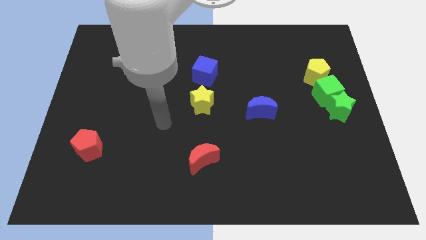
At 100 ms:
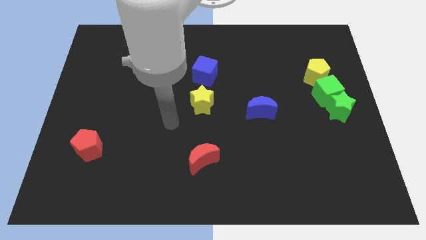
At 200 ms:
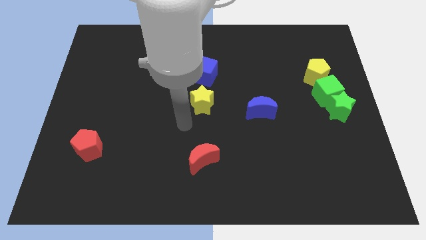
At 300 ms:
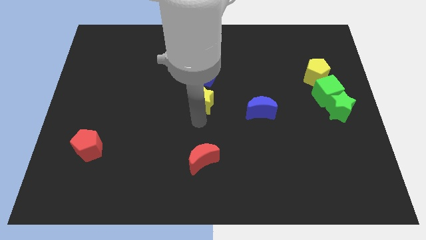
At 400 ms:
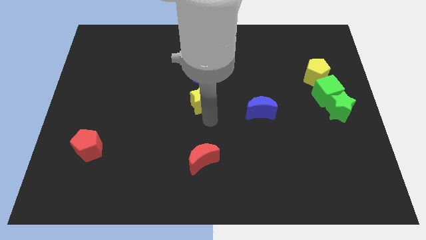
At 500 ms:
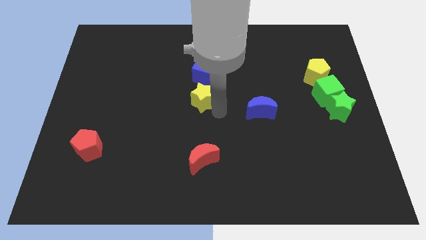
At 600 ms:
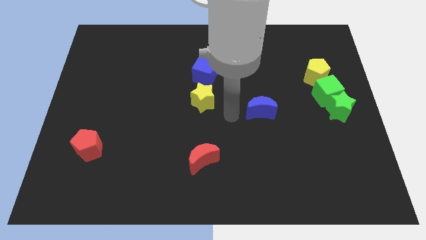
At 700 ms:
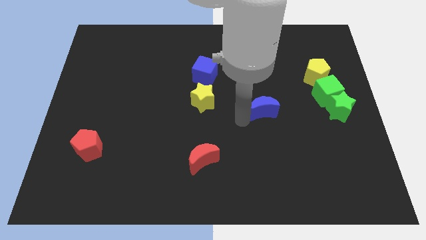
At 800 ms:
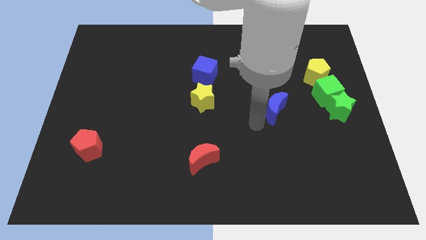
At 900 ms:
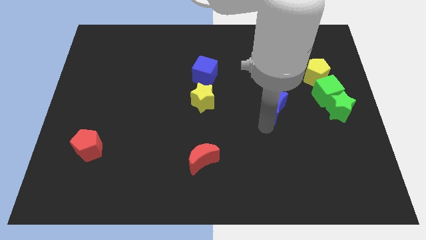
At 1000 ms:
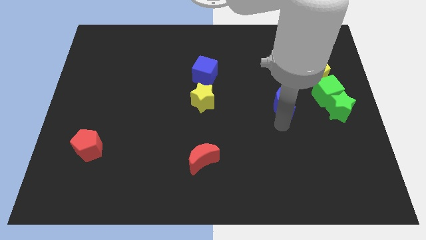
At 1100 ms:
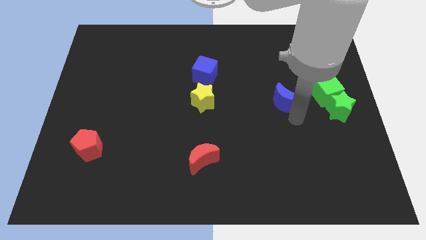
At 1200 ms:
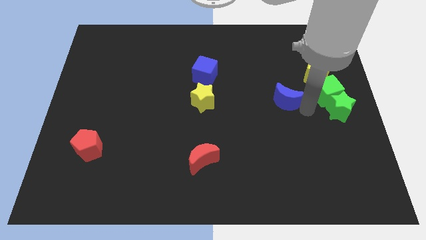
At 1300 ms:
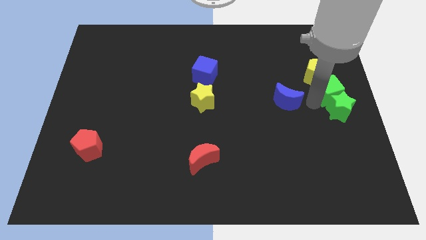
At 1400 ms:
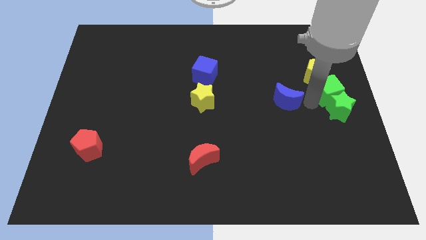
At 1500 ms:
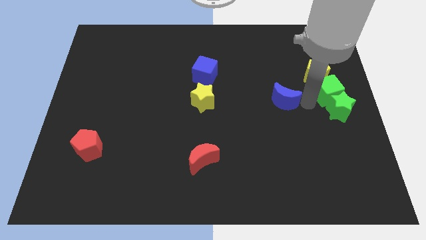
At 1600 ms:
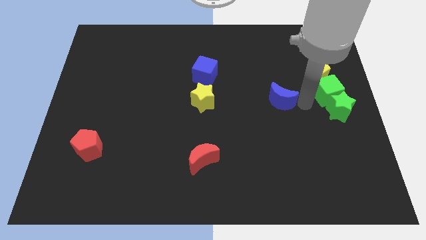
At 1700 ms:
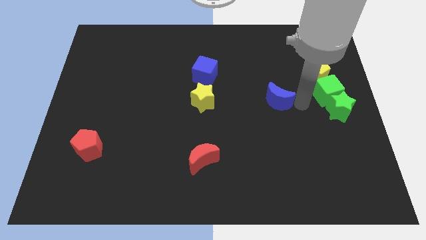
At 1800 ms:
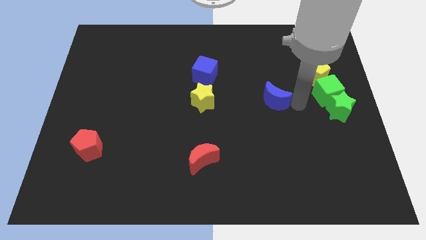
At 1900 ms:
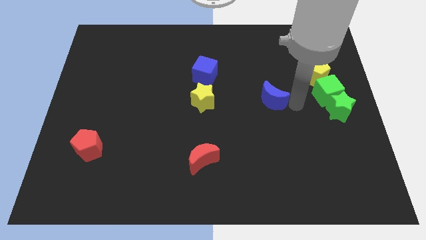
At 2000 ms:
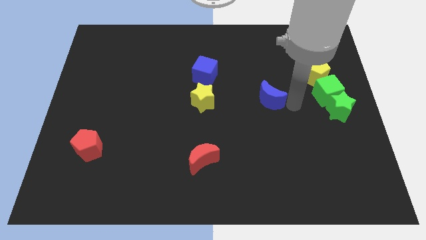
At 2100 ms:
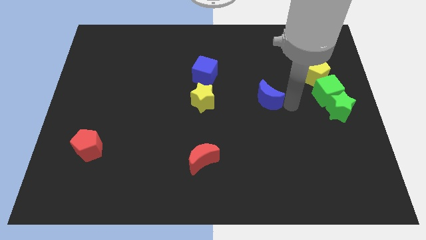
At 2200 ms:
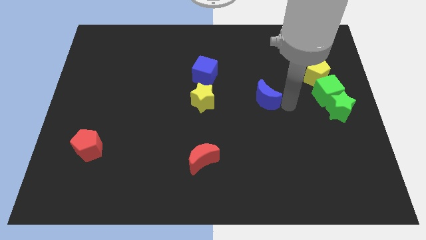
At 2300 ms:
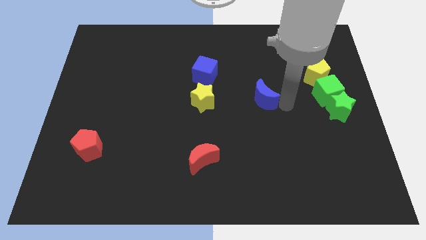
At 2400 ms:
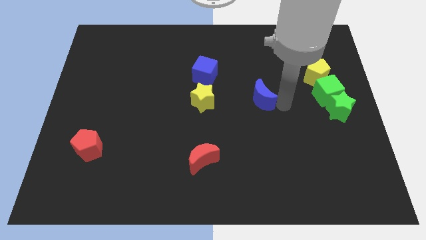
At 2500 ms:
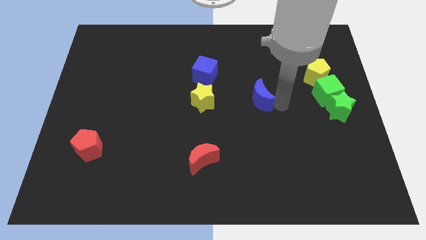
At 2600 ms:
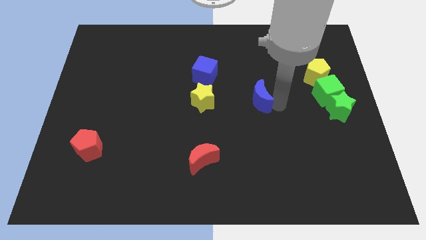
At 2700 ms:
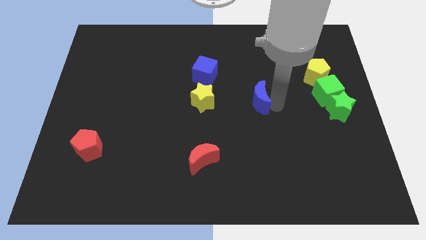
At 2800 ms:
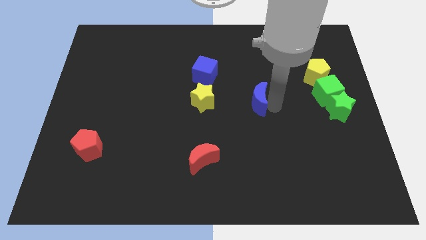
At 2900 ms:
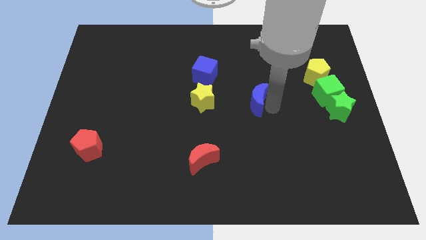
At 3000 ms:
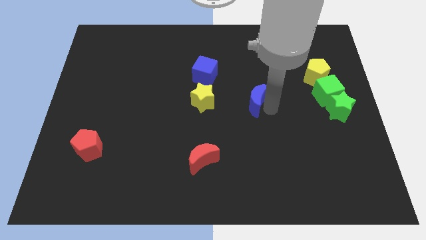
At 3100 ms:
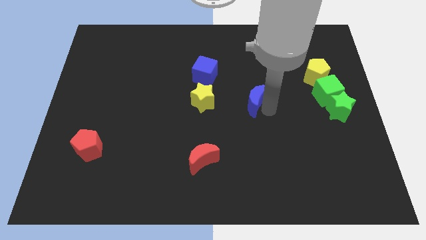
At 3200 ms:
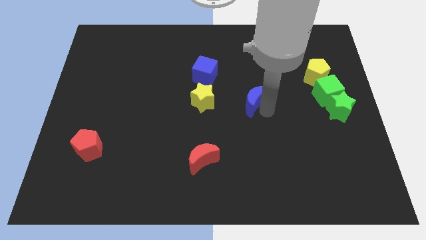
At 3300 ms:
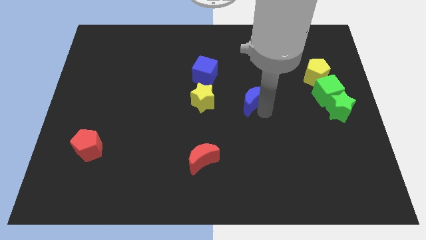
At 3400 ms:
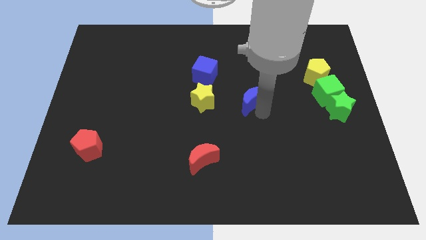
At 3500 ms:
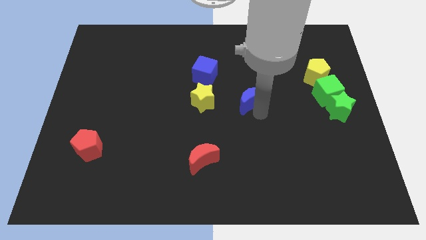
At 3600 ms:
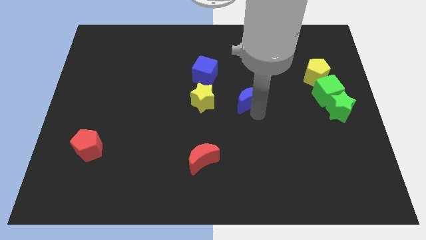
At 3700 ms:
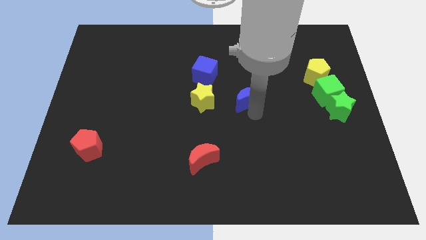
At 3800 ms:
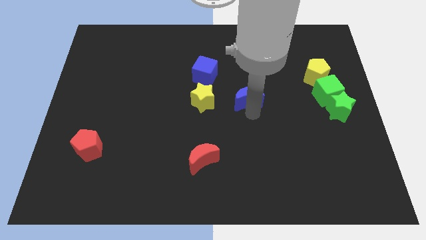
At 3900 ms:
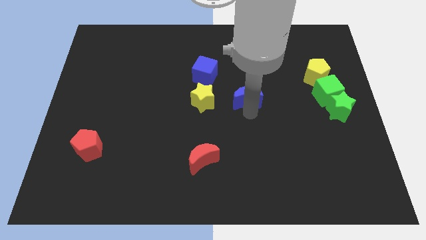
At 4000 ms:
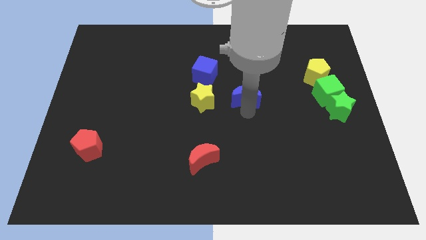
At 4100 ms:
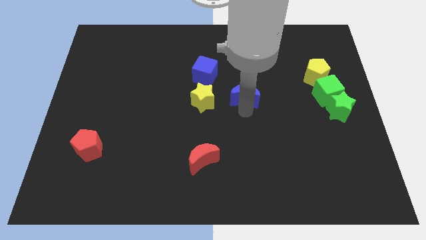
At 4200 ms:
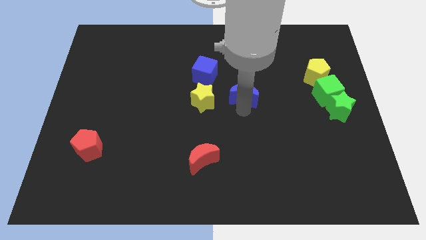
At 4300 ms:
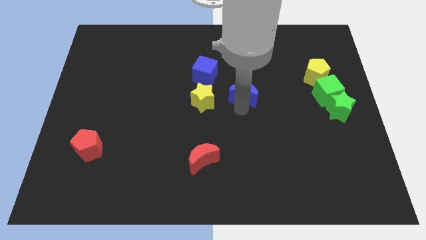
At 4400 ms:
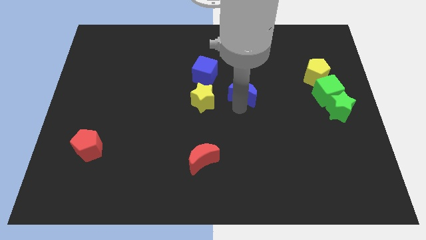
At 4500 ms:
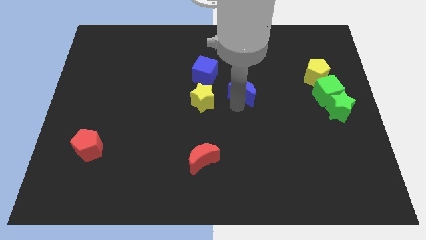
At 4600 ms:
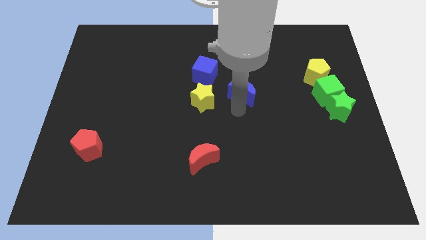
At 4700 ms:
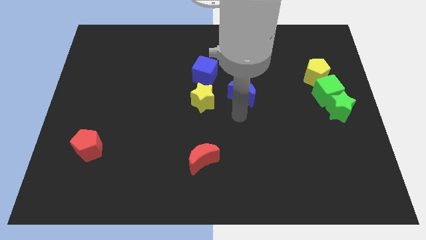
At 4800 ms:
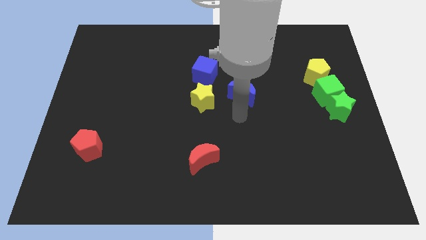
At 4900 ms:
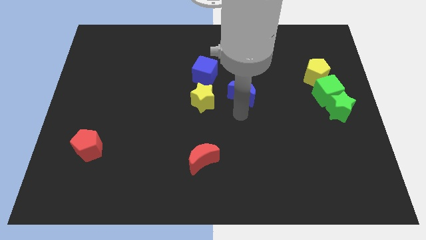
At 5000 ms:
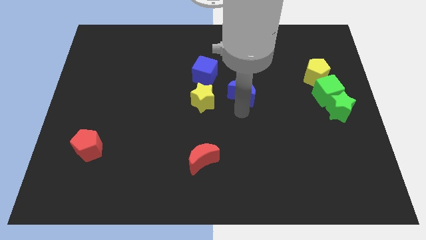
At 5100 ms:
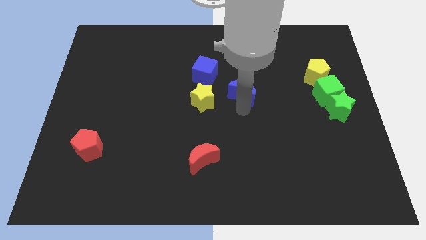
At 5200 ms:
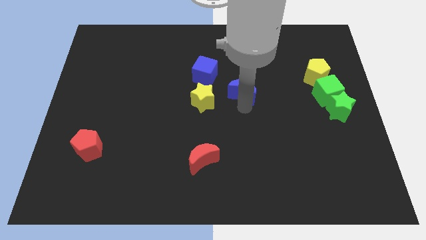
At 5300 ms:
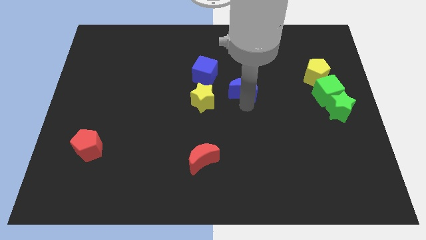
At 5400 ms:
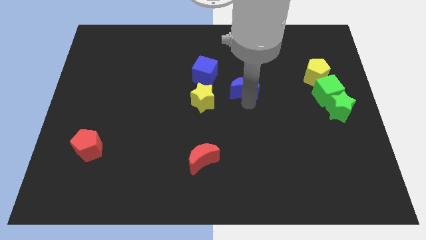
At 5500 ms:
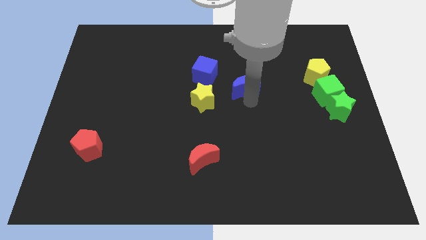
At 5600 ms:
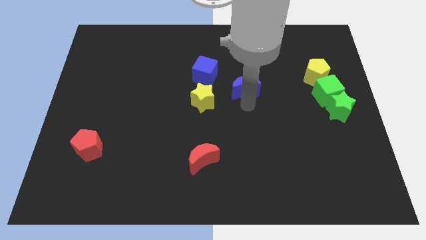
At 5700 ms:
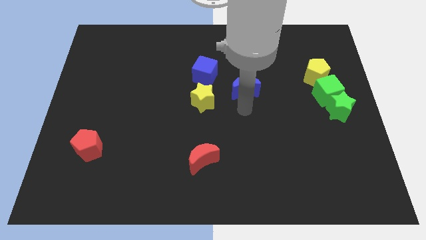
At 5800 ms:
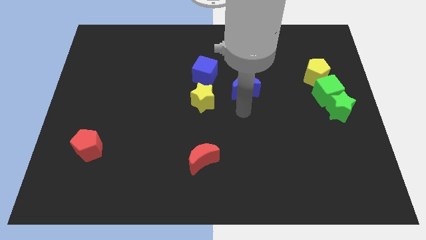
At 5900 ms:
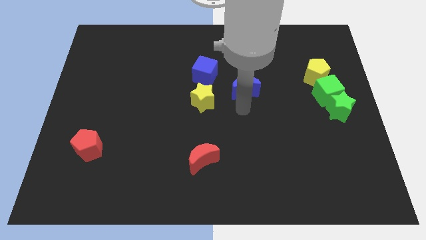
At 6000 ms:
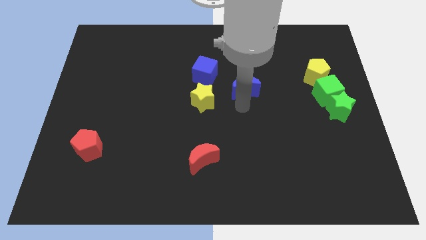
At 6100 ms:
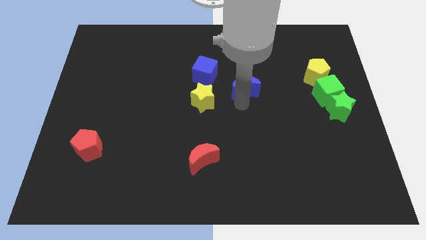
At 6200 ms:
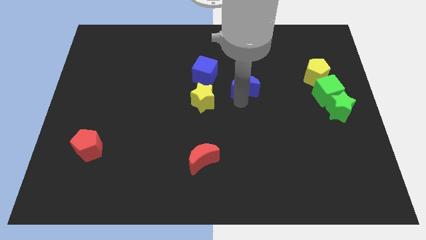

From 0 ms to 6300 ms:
slide the blue moon just right of the blue cube

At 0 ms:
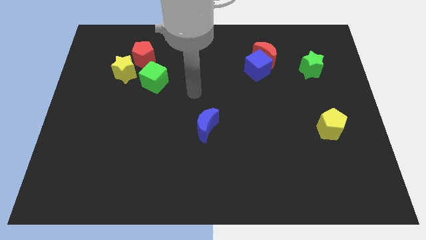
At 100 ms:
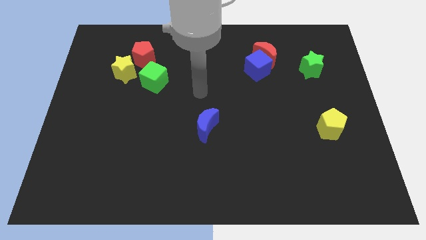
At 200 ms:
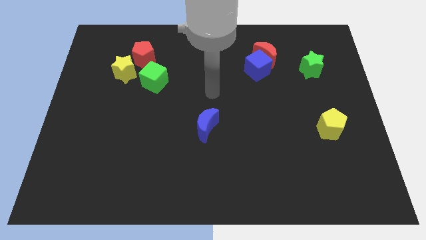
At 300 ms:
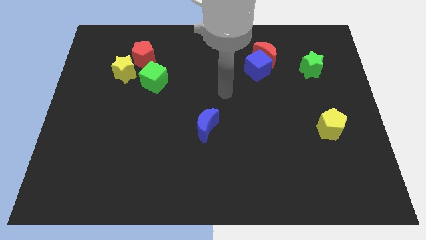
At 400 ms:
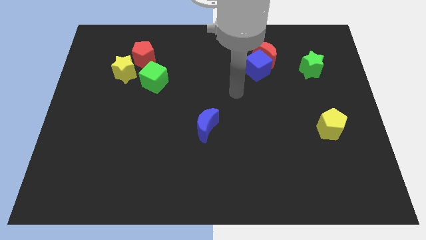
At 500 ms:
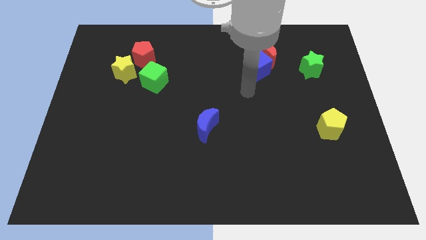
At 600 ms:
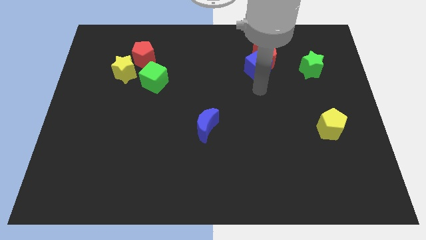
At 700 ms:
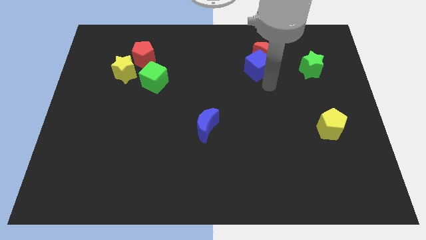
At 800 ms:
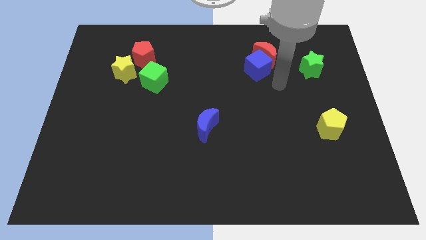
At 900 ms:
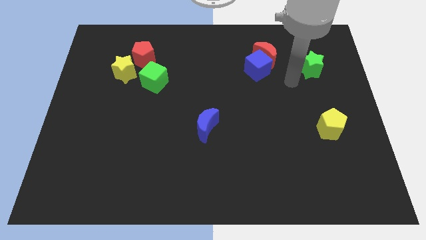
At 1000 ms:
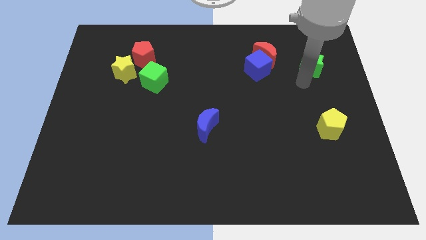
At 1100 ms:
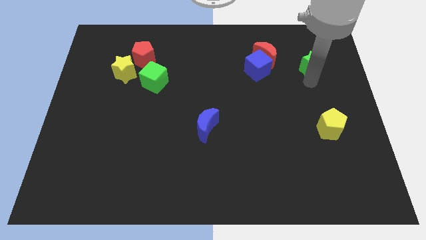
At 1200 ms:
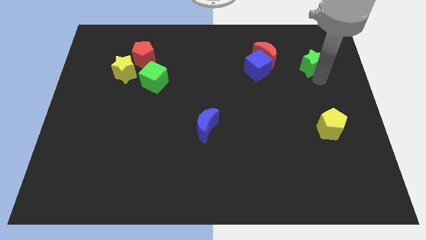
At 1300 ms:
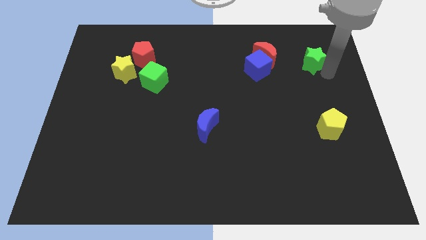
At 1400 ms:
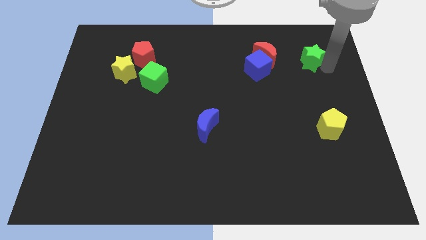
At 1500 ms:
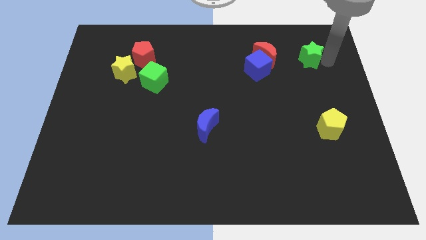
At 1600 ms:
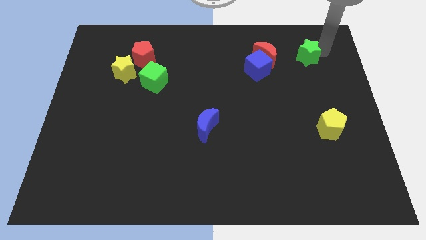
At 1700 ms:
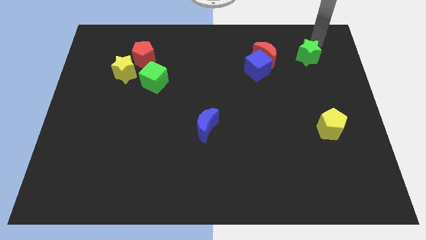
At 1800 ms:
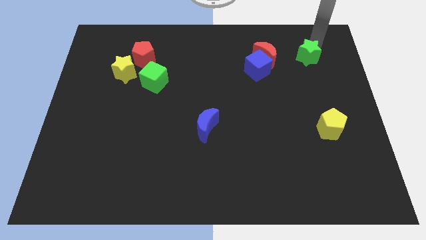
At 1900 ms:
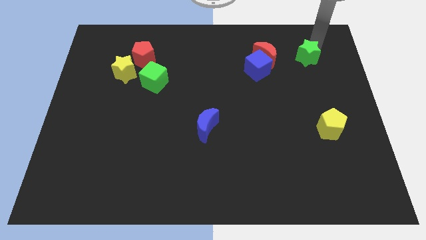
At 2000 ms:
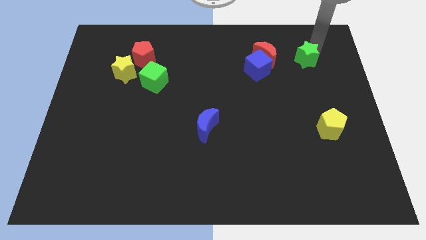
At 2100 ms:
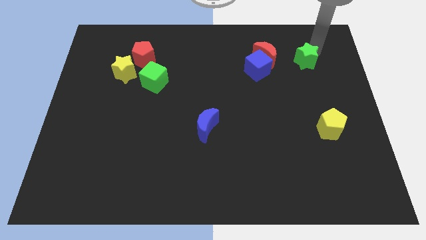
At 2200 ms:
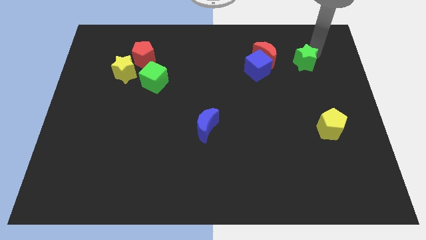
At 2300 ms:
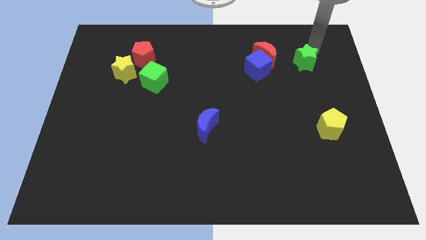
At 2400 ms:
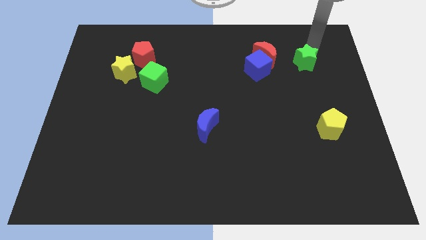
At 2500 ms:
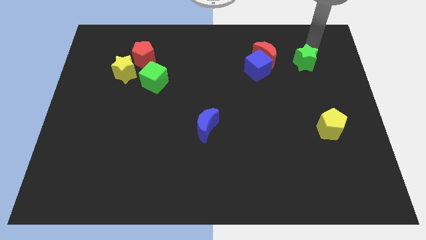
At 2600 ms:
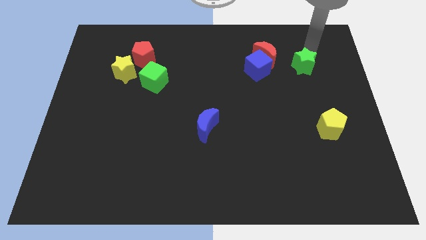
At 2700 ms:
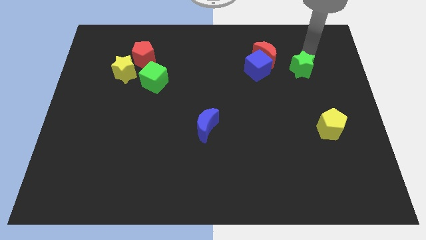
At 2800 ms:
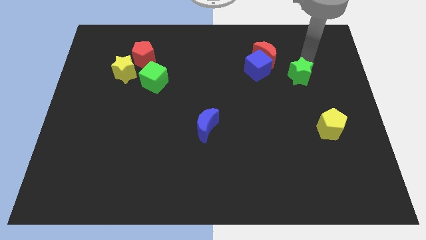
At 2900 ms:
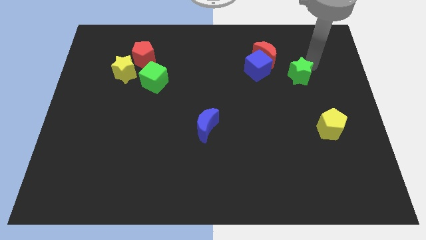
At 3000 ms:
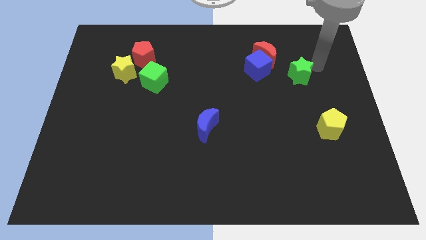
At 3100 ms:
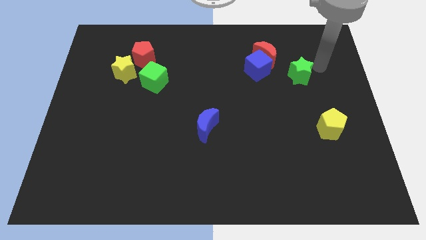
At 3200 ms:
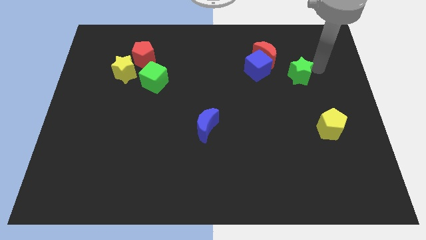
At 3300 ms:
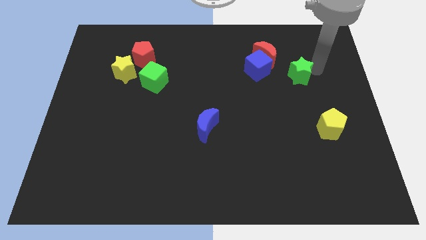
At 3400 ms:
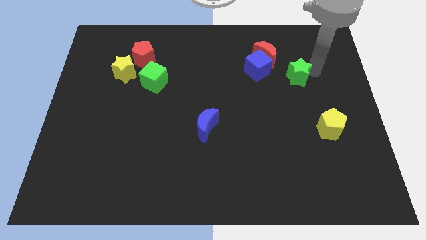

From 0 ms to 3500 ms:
put the green star diagonally down and to the right of the blue cube
